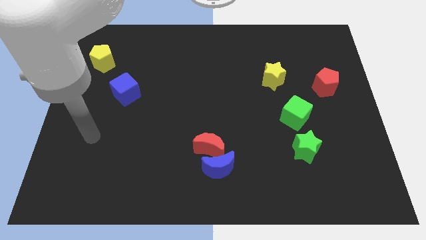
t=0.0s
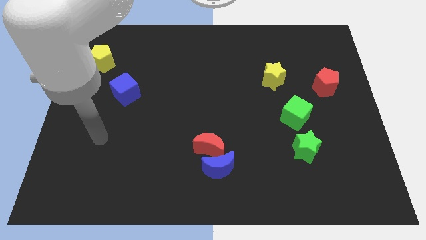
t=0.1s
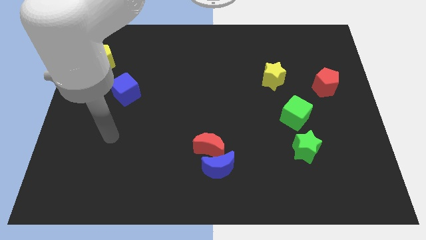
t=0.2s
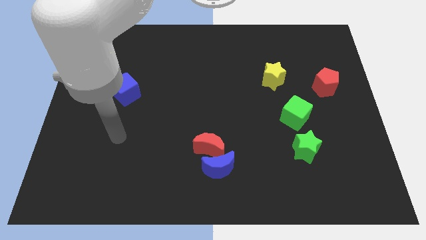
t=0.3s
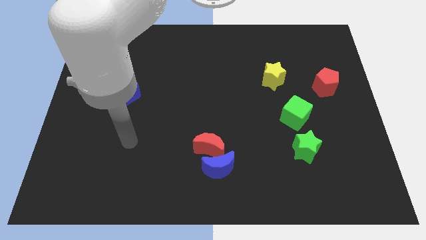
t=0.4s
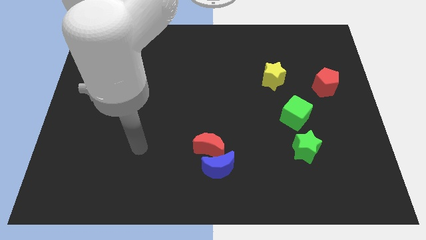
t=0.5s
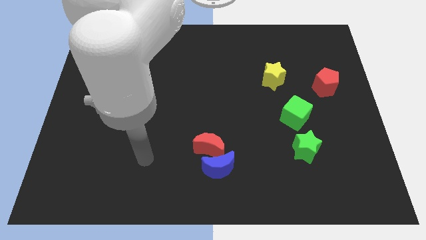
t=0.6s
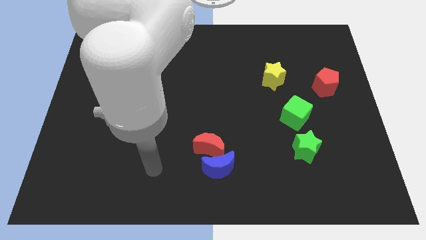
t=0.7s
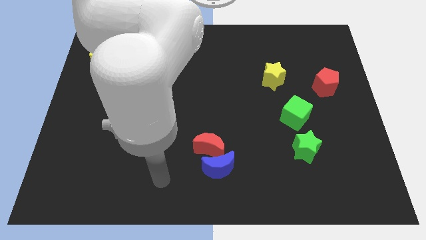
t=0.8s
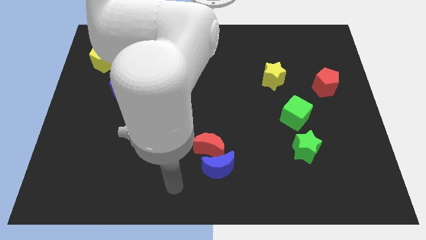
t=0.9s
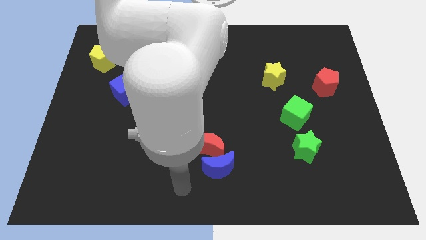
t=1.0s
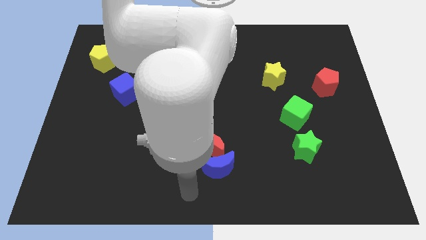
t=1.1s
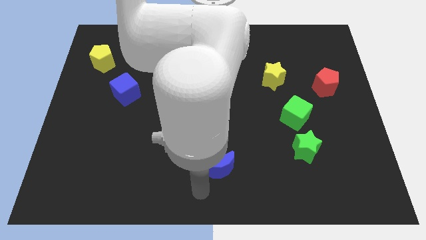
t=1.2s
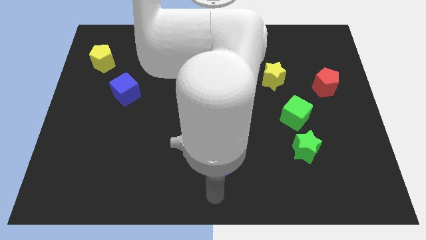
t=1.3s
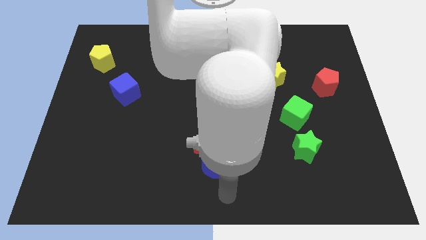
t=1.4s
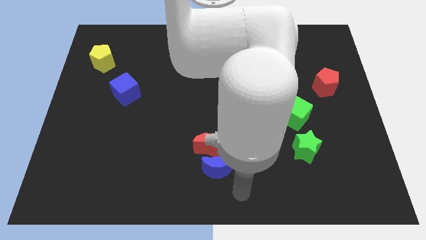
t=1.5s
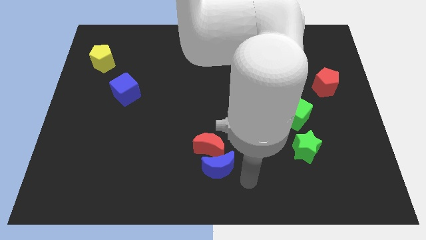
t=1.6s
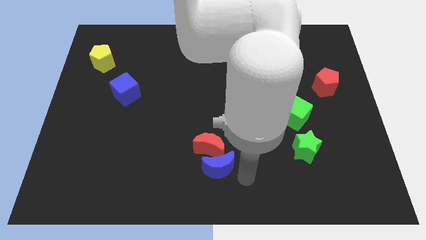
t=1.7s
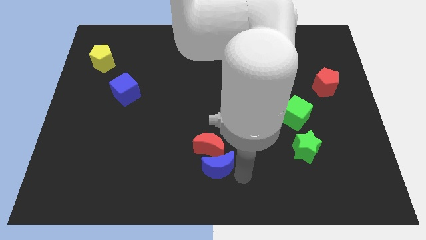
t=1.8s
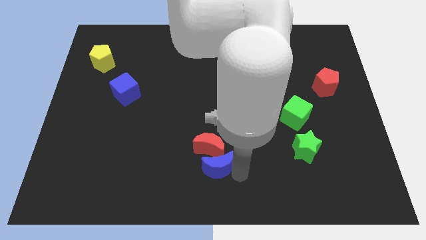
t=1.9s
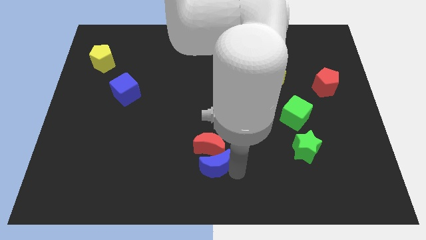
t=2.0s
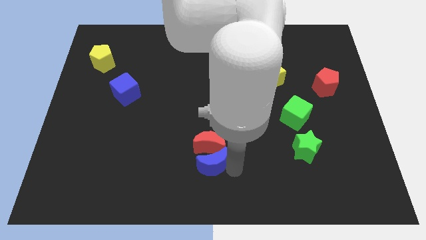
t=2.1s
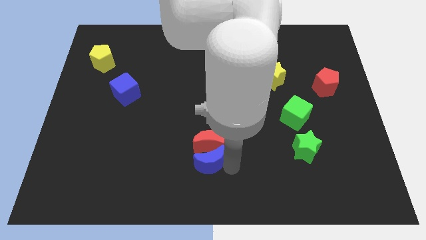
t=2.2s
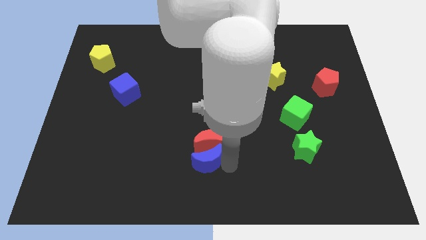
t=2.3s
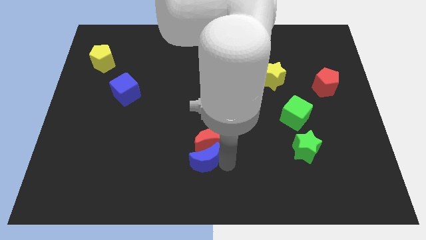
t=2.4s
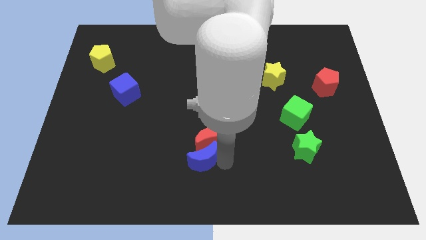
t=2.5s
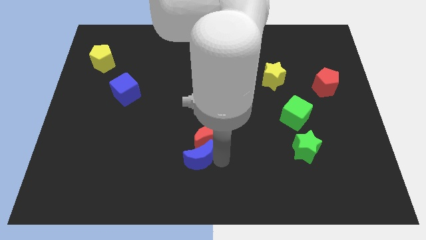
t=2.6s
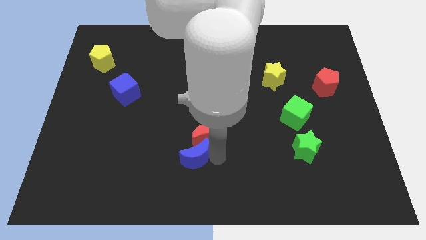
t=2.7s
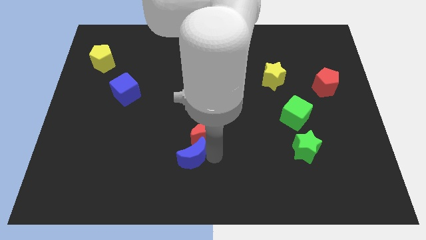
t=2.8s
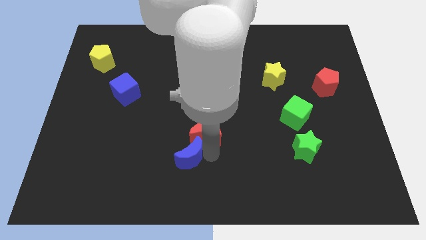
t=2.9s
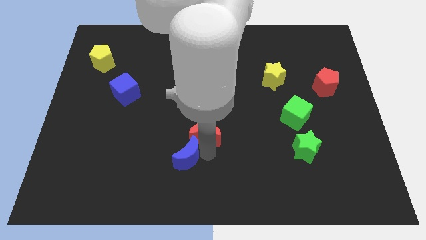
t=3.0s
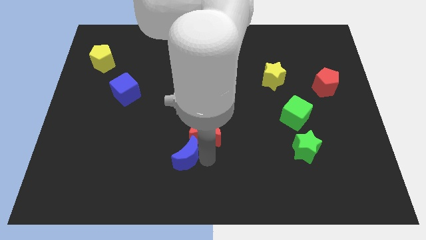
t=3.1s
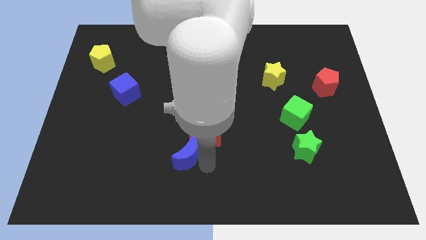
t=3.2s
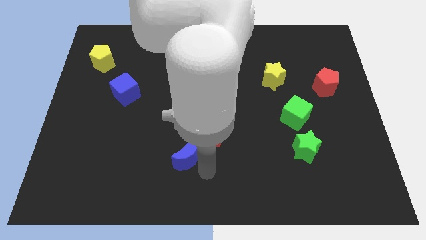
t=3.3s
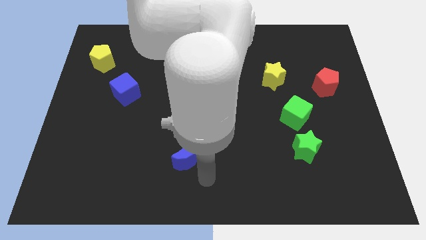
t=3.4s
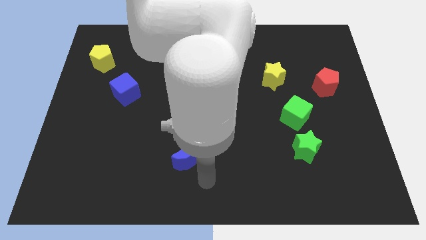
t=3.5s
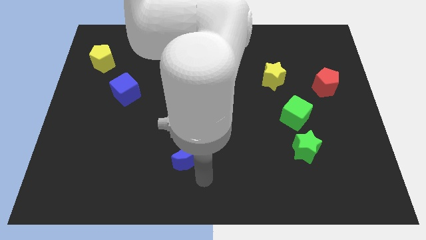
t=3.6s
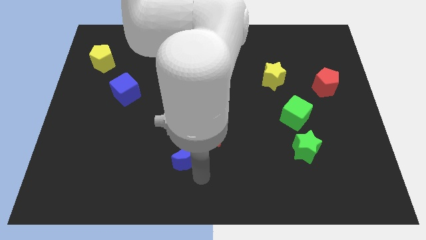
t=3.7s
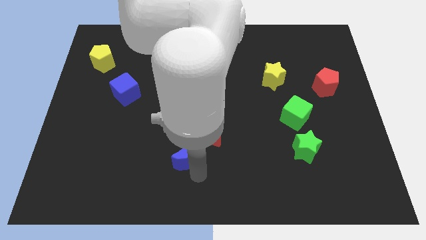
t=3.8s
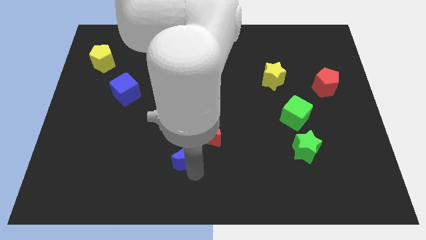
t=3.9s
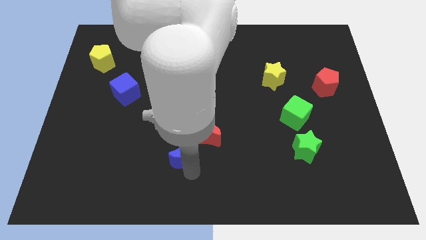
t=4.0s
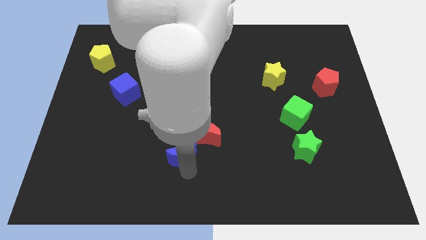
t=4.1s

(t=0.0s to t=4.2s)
slide the blue moon somewhat upwards and left

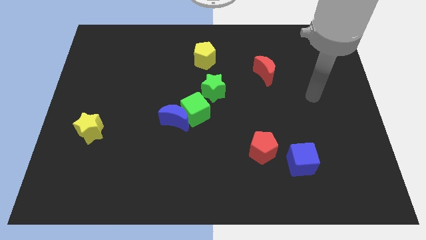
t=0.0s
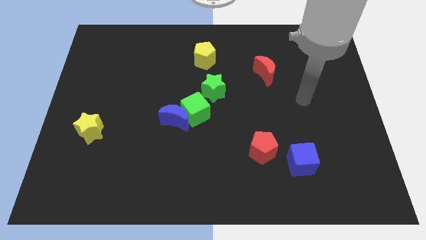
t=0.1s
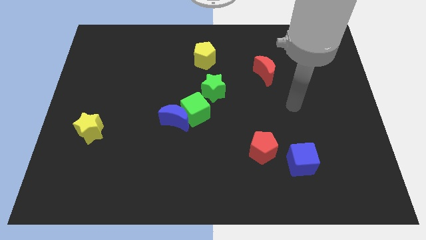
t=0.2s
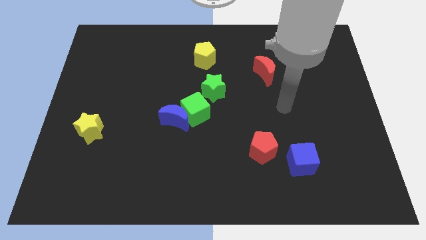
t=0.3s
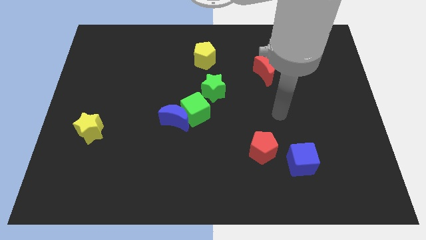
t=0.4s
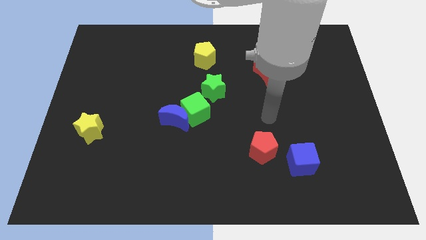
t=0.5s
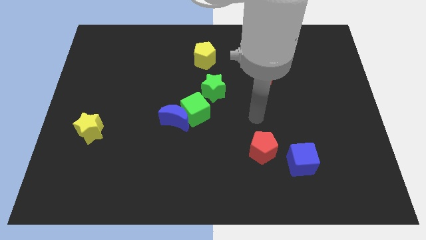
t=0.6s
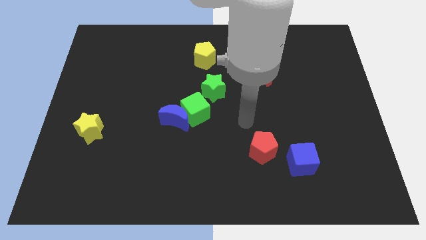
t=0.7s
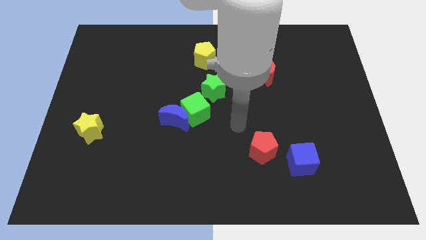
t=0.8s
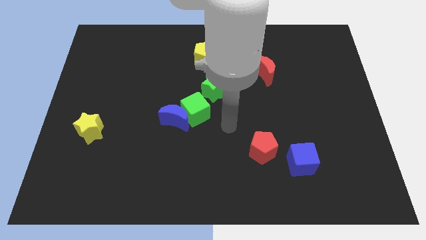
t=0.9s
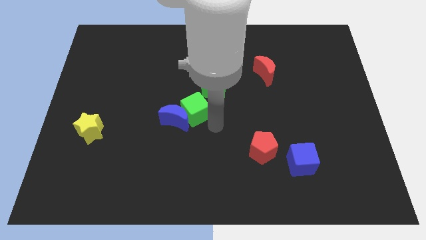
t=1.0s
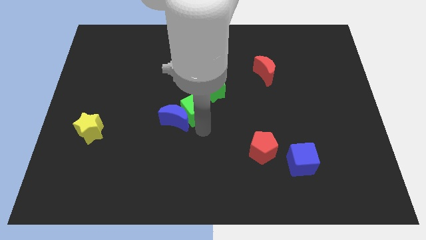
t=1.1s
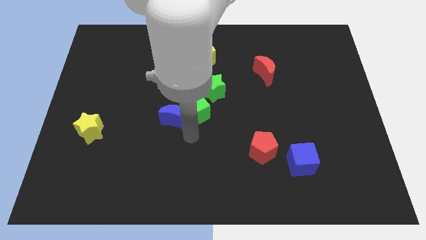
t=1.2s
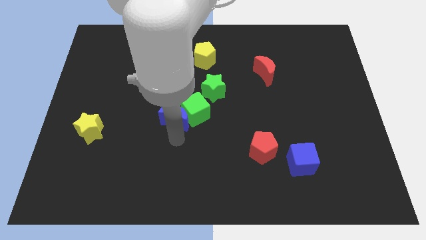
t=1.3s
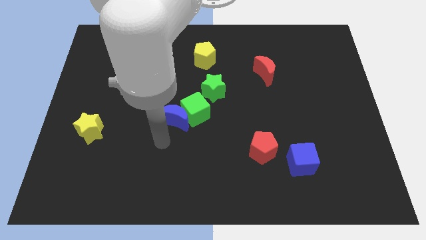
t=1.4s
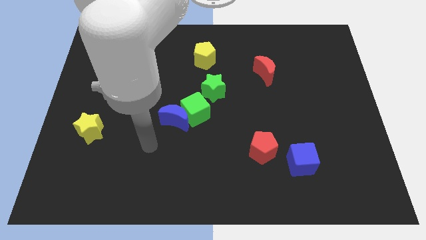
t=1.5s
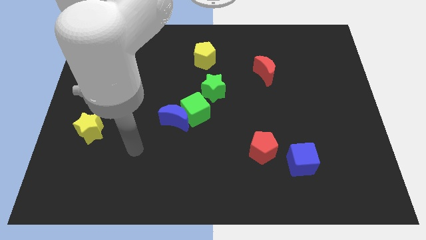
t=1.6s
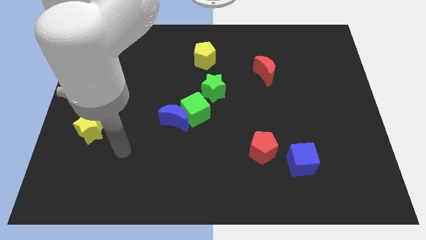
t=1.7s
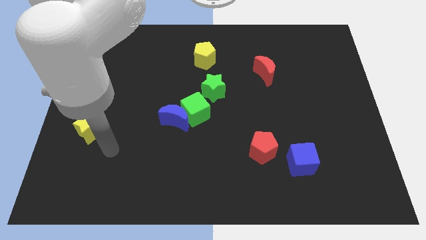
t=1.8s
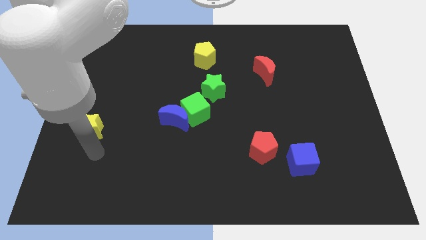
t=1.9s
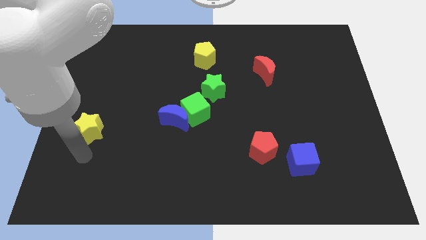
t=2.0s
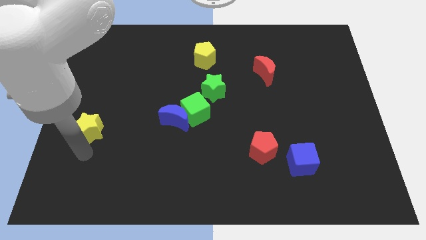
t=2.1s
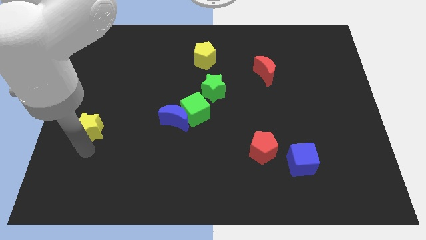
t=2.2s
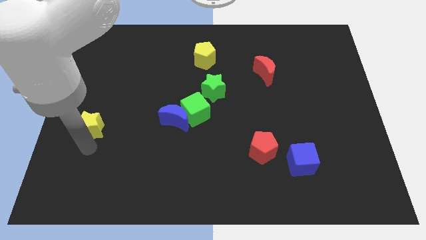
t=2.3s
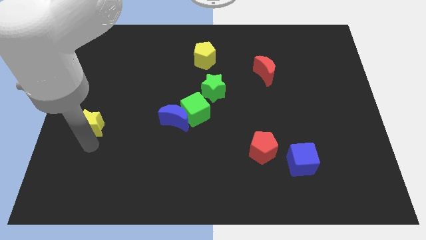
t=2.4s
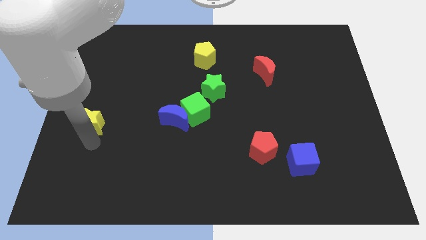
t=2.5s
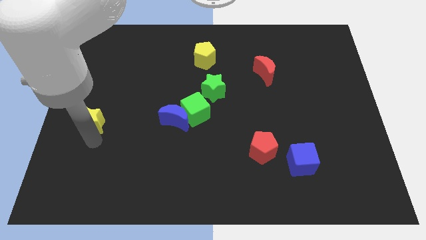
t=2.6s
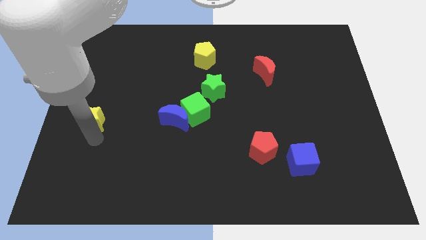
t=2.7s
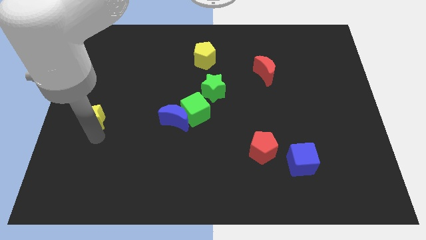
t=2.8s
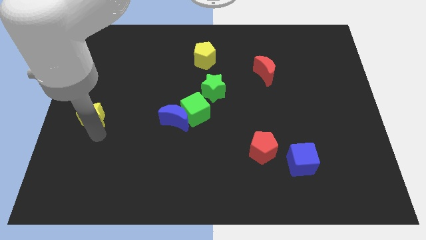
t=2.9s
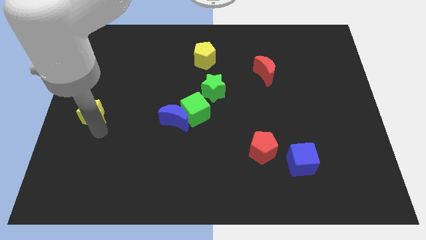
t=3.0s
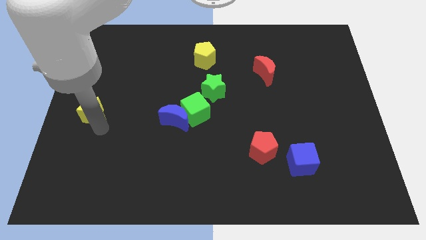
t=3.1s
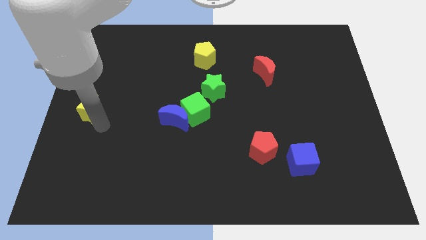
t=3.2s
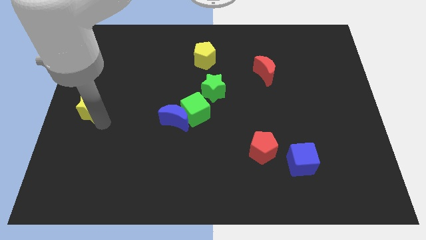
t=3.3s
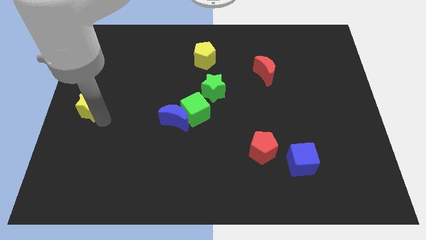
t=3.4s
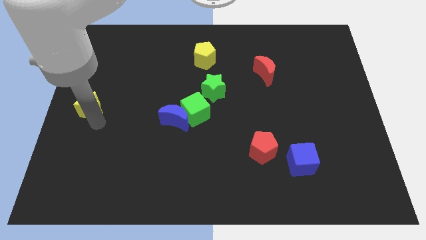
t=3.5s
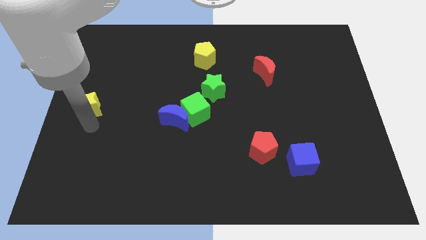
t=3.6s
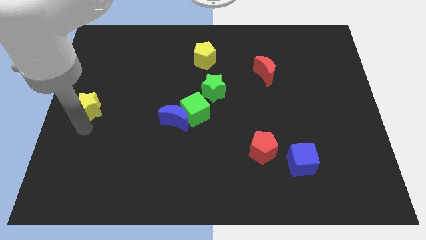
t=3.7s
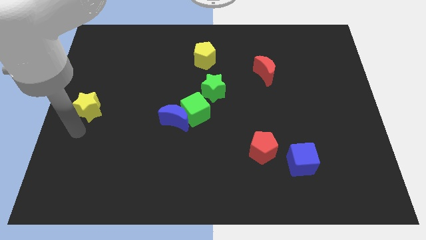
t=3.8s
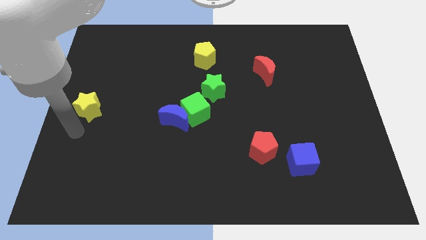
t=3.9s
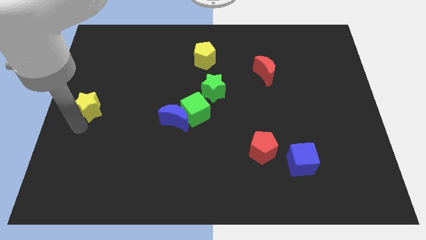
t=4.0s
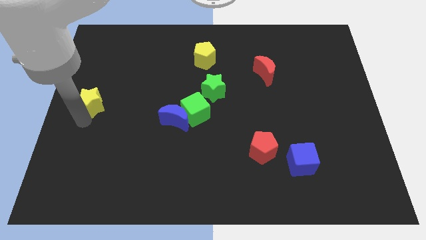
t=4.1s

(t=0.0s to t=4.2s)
slightly move the yellow star upwards
